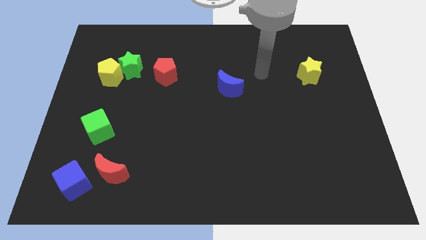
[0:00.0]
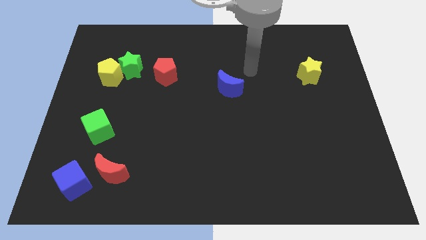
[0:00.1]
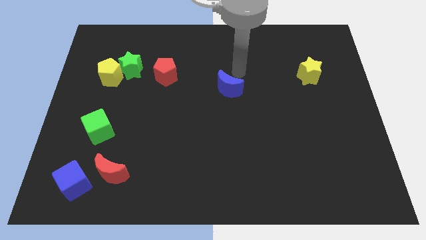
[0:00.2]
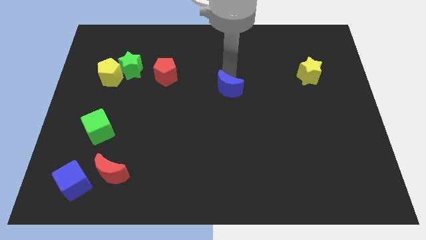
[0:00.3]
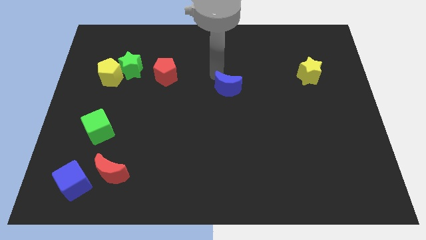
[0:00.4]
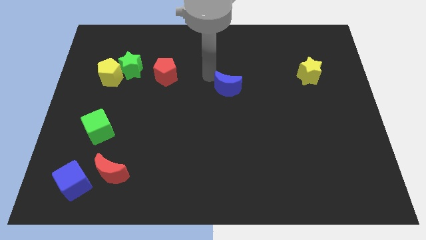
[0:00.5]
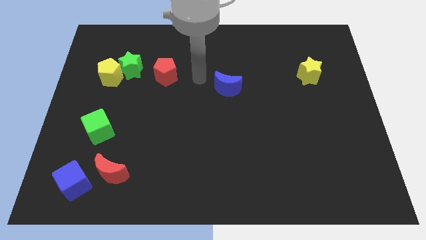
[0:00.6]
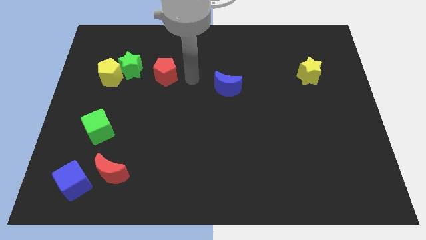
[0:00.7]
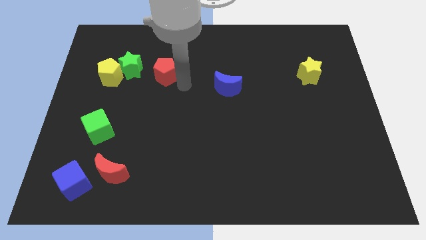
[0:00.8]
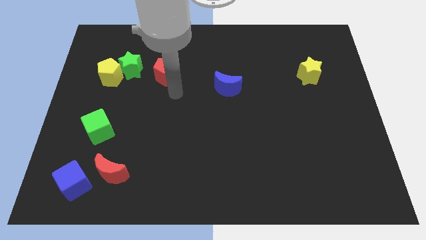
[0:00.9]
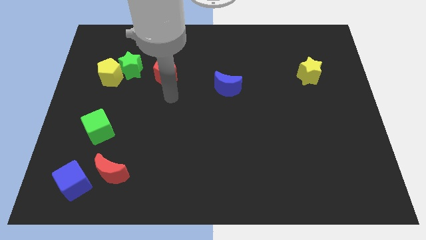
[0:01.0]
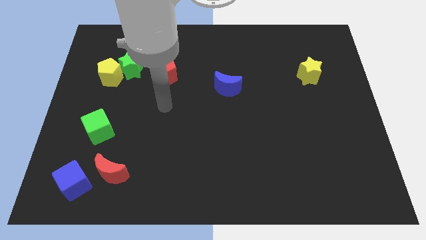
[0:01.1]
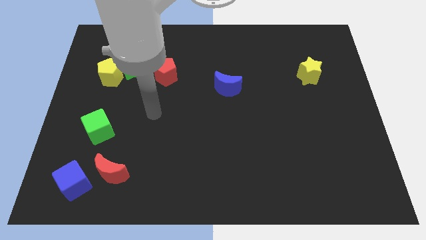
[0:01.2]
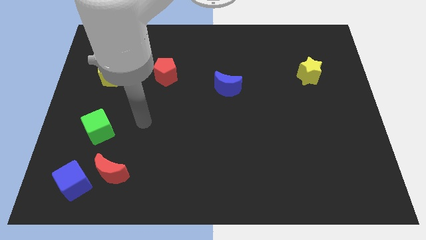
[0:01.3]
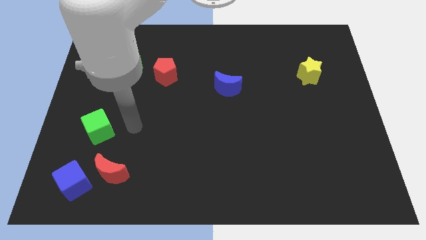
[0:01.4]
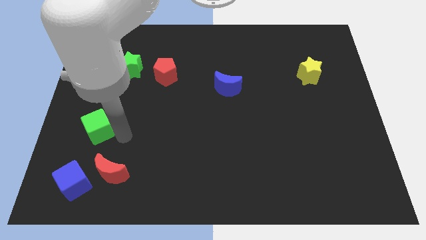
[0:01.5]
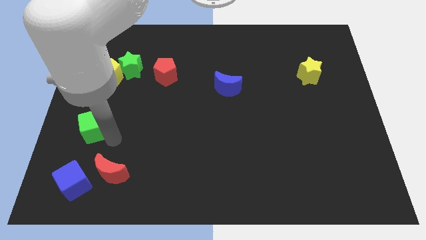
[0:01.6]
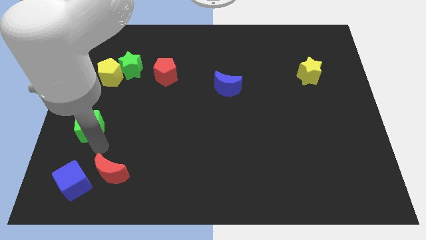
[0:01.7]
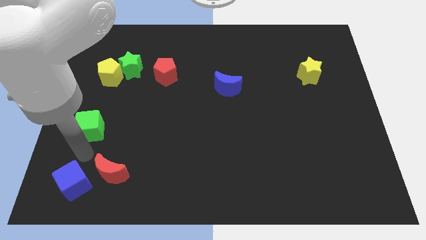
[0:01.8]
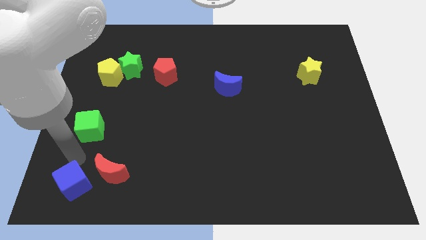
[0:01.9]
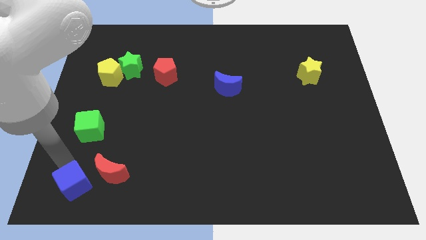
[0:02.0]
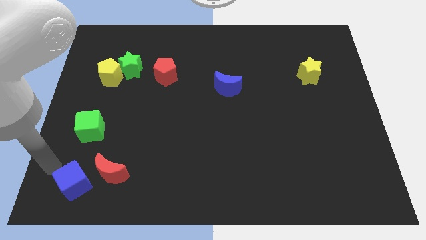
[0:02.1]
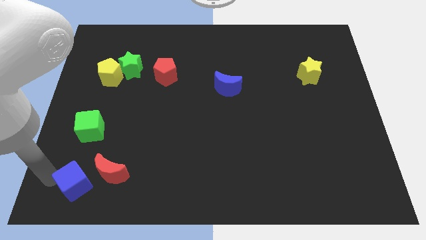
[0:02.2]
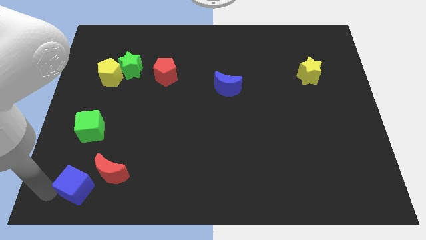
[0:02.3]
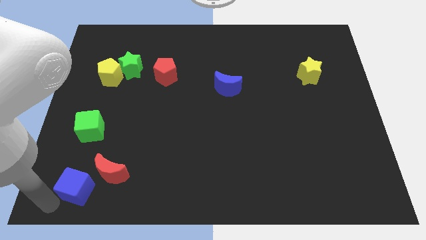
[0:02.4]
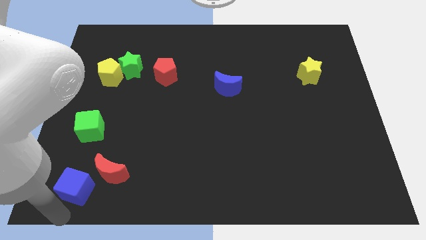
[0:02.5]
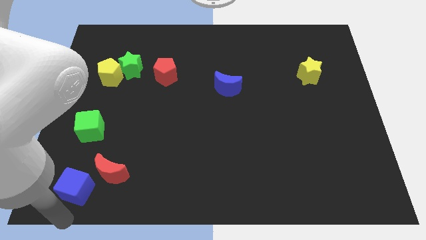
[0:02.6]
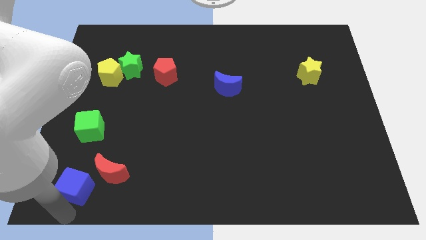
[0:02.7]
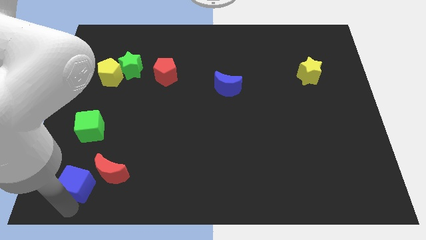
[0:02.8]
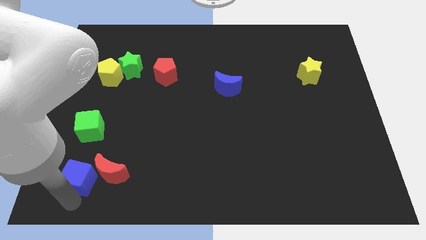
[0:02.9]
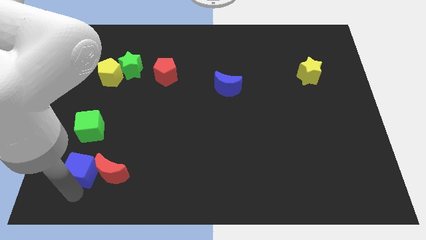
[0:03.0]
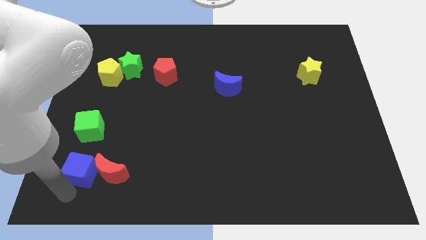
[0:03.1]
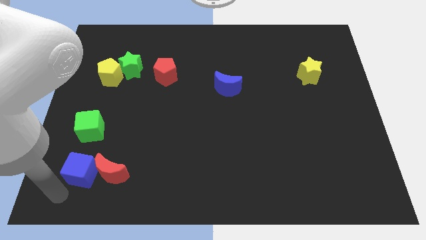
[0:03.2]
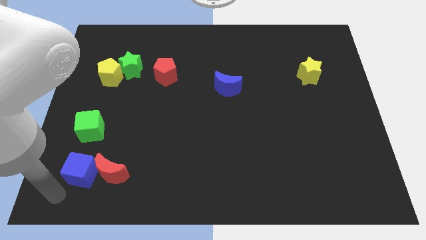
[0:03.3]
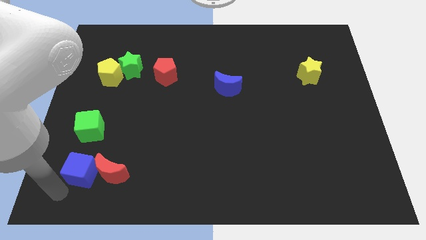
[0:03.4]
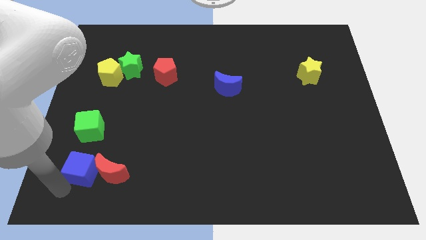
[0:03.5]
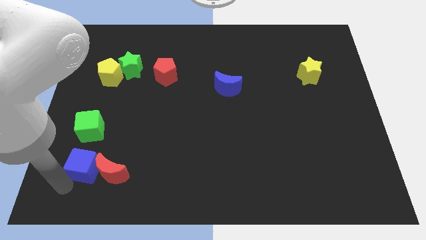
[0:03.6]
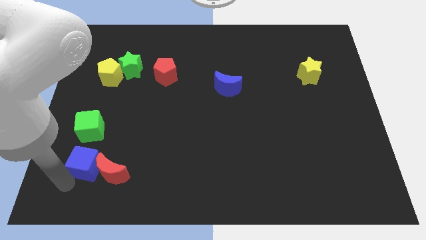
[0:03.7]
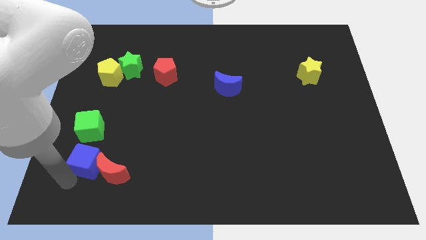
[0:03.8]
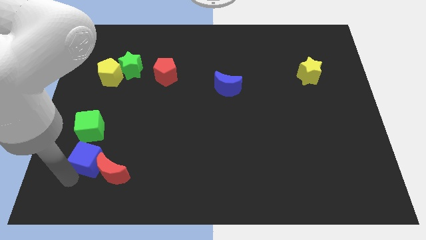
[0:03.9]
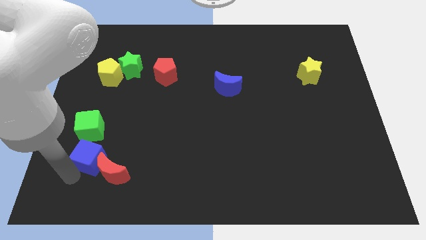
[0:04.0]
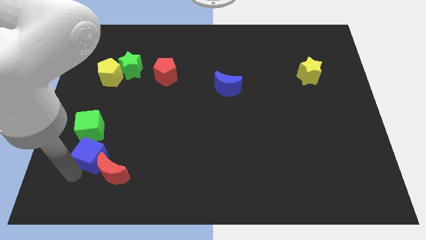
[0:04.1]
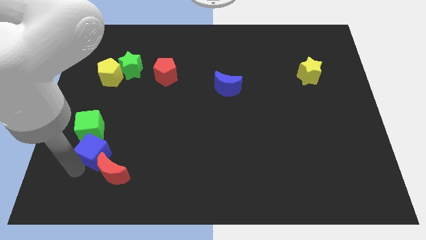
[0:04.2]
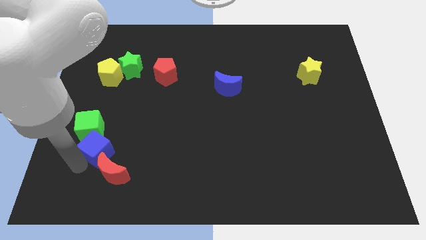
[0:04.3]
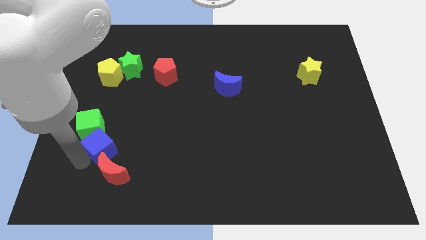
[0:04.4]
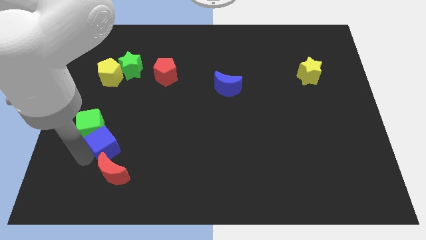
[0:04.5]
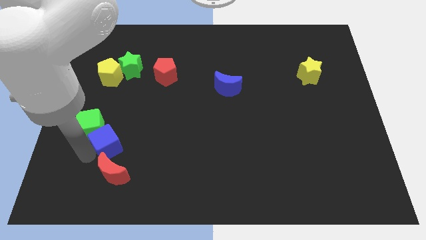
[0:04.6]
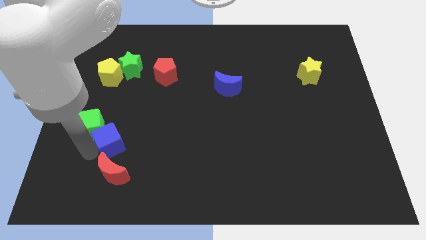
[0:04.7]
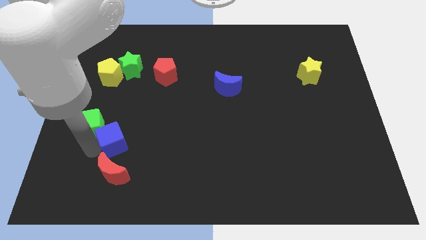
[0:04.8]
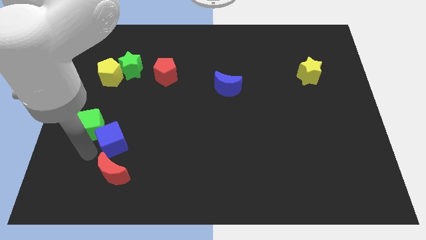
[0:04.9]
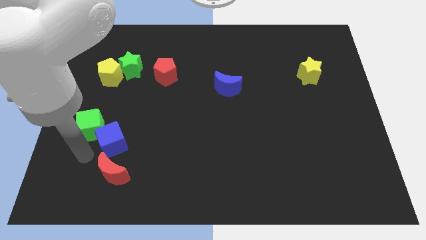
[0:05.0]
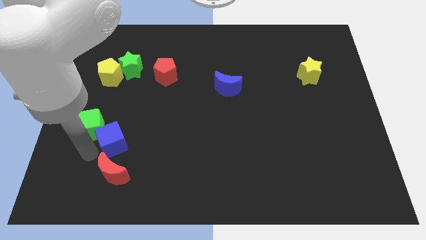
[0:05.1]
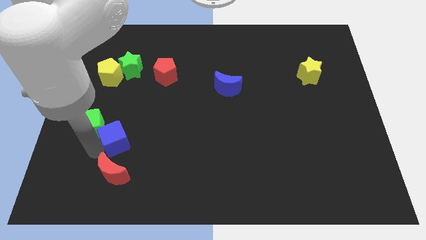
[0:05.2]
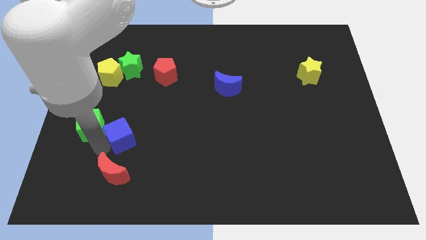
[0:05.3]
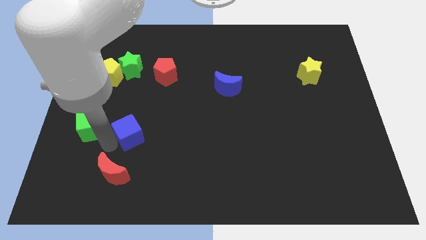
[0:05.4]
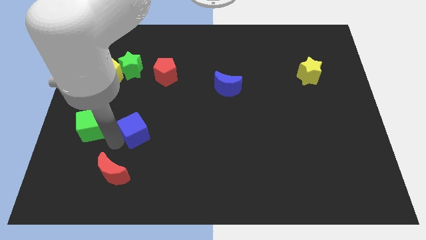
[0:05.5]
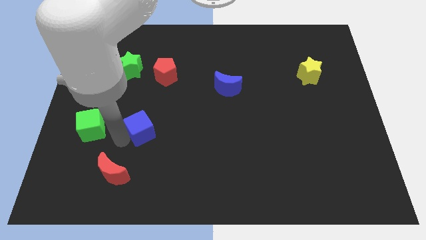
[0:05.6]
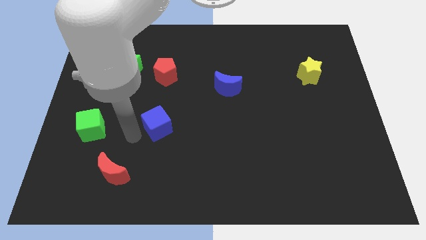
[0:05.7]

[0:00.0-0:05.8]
push the blue cube upwards and to the right

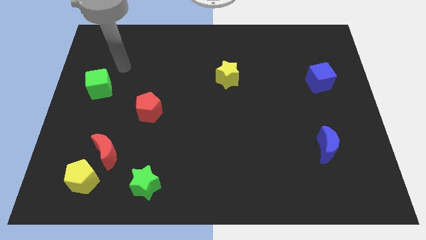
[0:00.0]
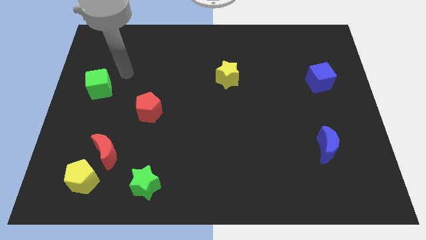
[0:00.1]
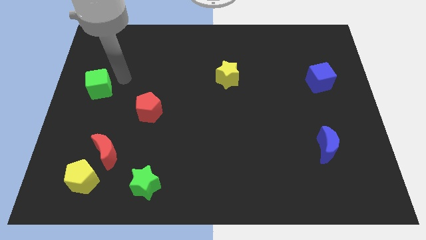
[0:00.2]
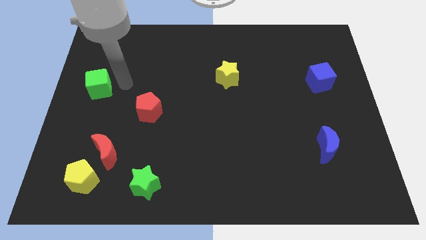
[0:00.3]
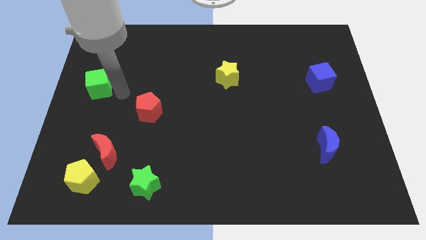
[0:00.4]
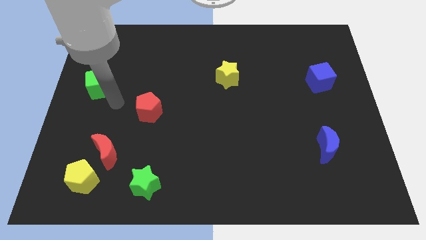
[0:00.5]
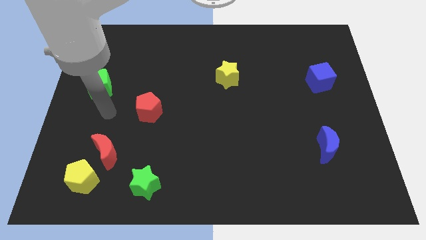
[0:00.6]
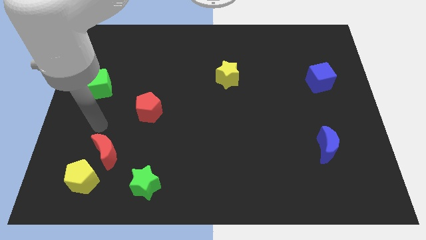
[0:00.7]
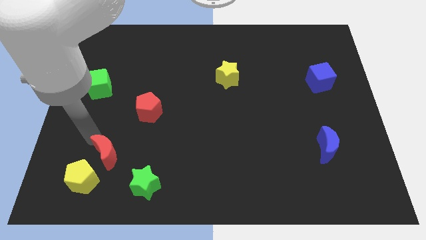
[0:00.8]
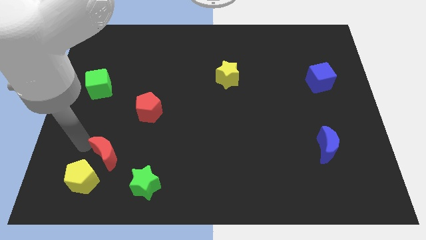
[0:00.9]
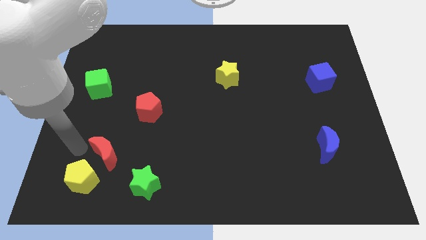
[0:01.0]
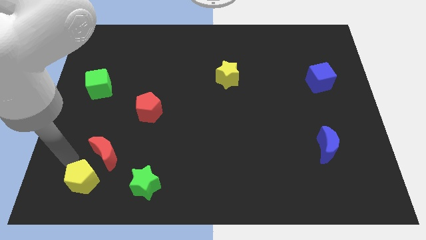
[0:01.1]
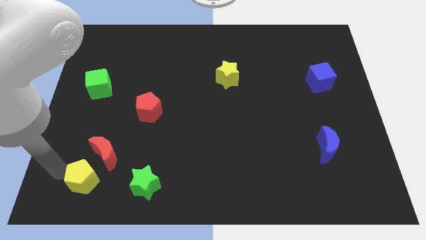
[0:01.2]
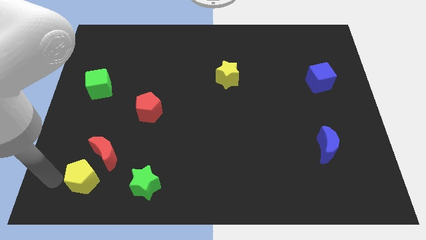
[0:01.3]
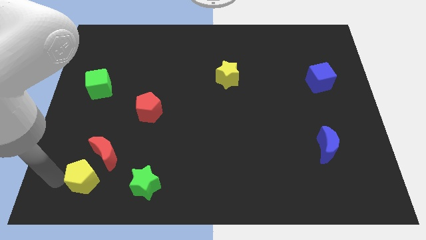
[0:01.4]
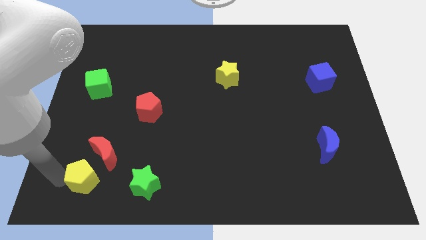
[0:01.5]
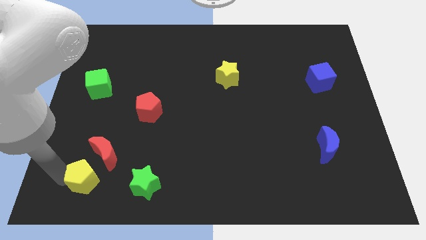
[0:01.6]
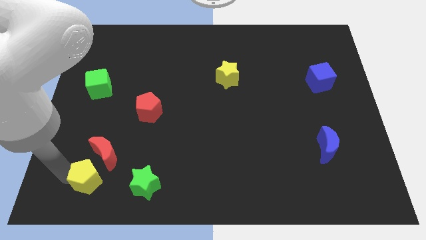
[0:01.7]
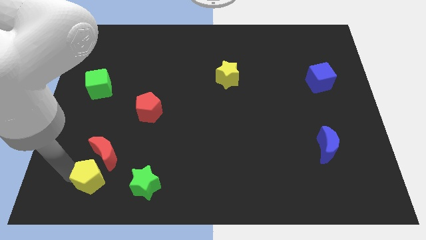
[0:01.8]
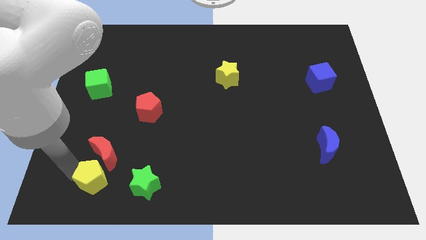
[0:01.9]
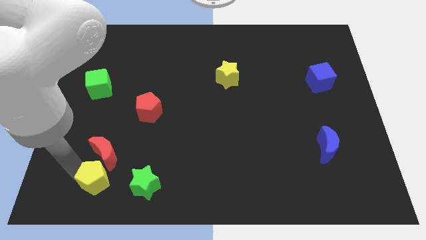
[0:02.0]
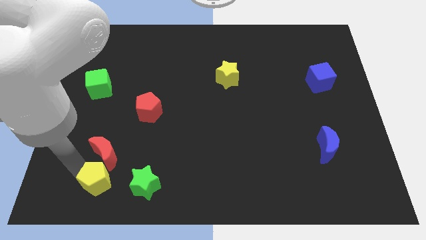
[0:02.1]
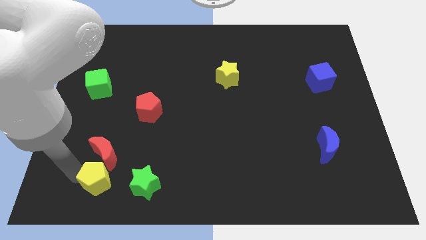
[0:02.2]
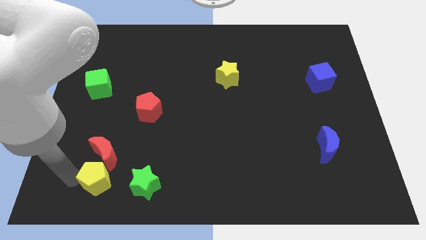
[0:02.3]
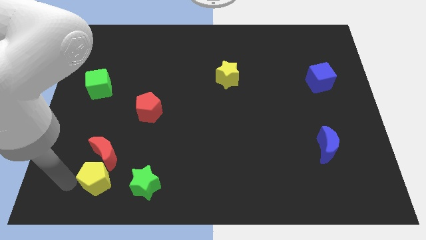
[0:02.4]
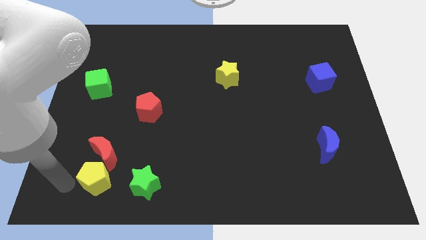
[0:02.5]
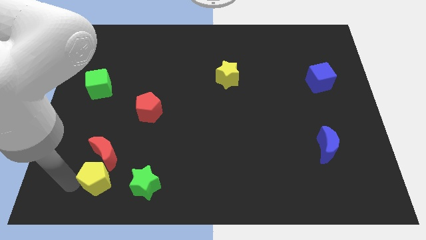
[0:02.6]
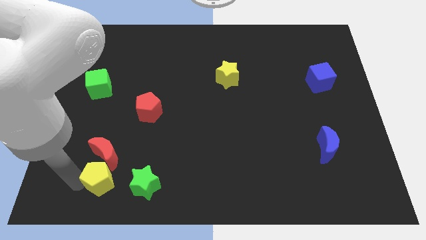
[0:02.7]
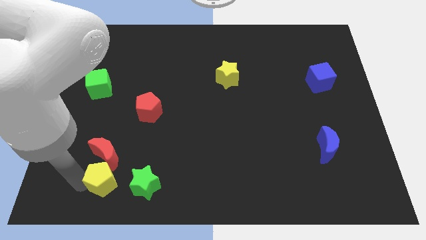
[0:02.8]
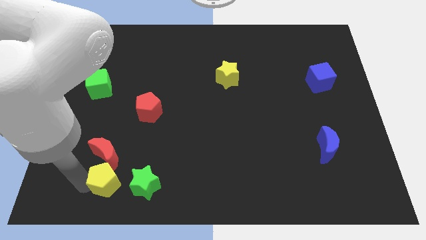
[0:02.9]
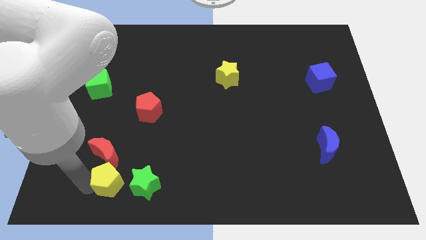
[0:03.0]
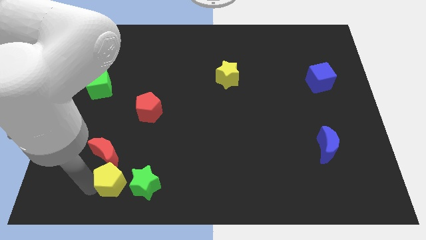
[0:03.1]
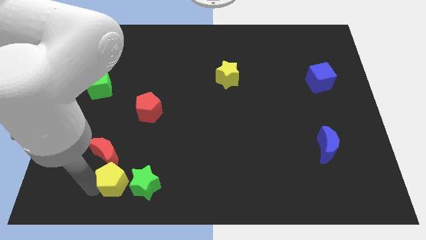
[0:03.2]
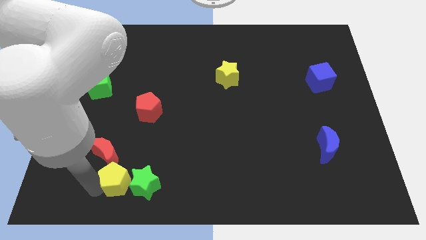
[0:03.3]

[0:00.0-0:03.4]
slightly move the yellow pentagon to the right
